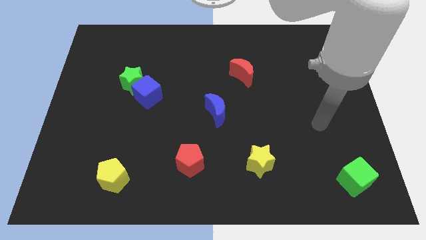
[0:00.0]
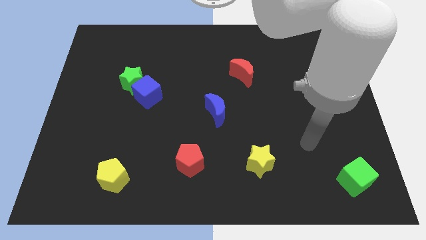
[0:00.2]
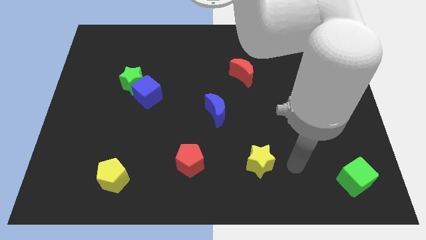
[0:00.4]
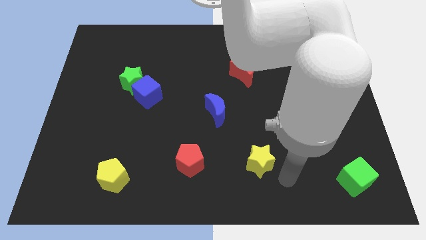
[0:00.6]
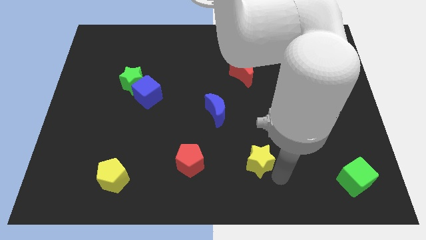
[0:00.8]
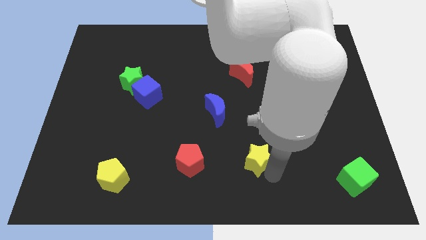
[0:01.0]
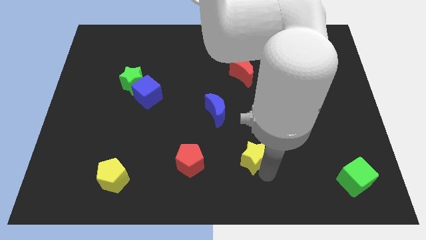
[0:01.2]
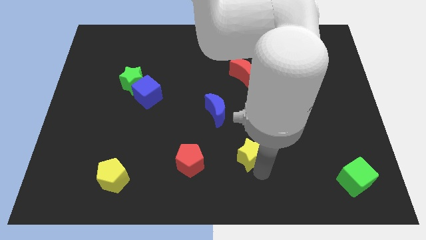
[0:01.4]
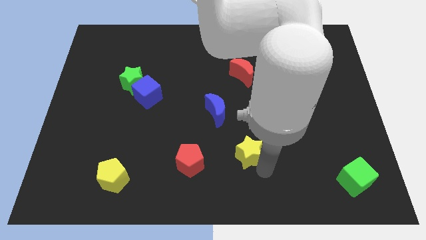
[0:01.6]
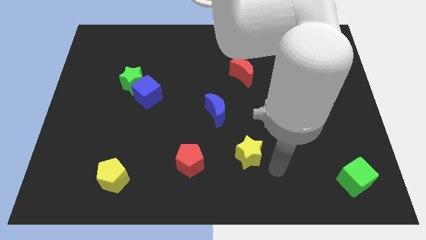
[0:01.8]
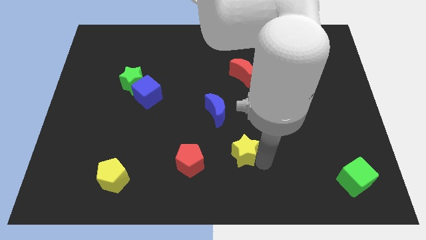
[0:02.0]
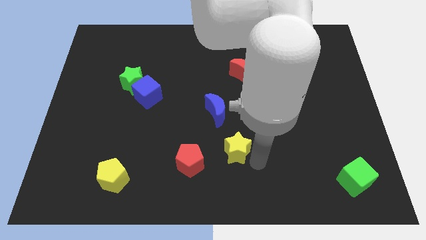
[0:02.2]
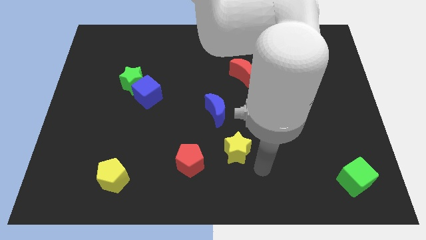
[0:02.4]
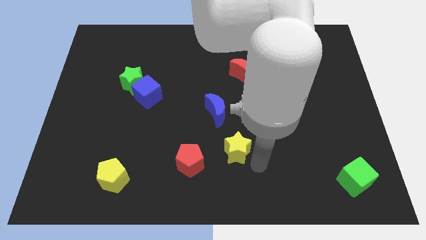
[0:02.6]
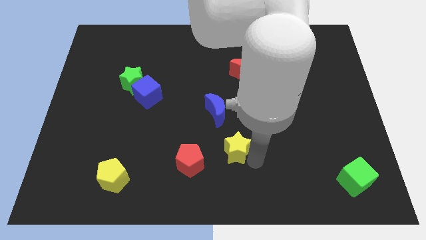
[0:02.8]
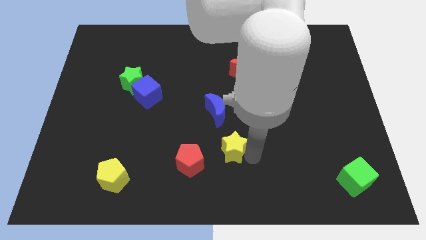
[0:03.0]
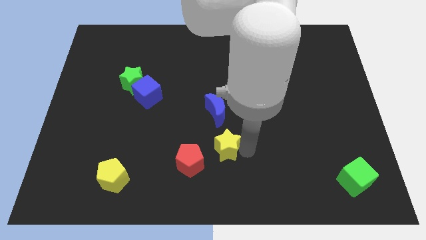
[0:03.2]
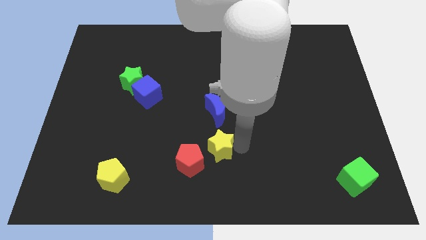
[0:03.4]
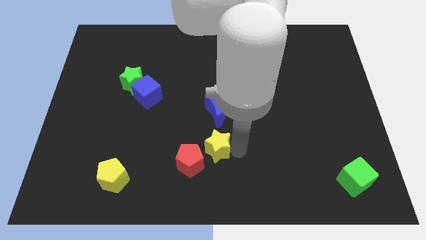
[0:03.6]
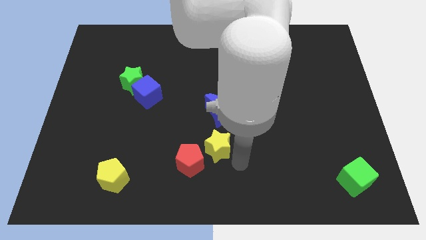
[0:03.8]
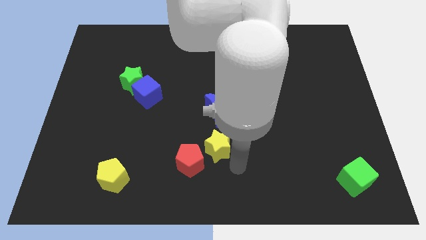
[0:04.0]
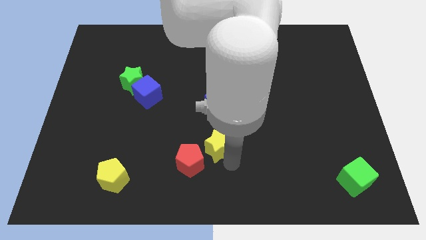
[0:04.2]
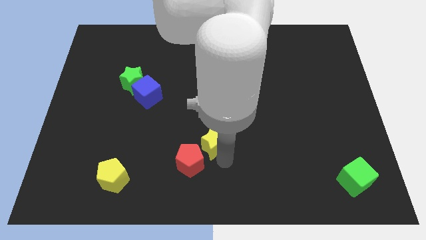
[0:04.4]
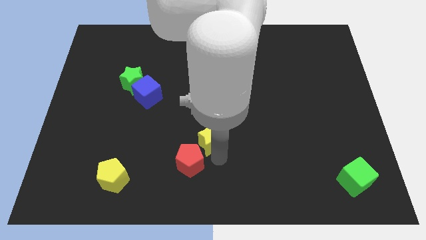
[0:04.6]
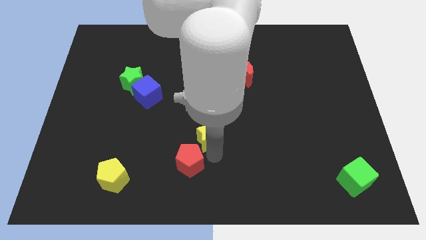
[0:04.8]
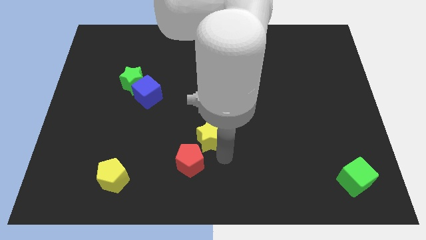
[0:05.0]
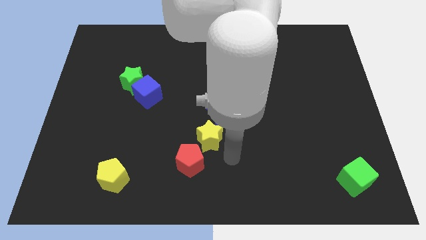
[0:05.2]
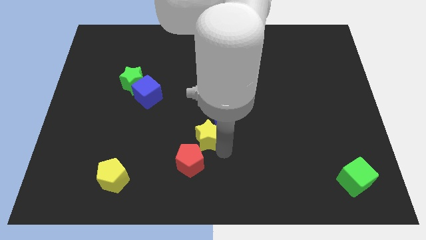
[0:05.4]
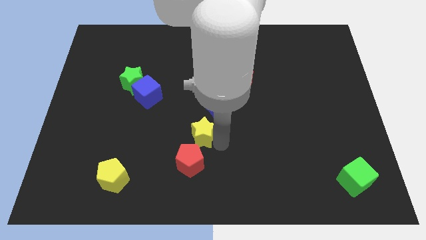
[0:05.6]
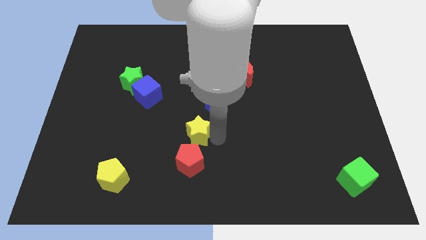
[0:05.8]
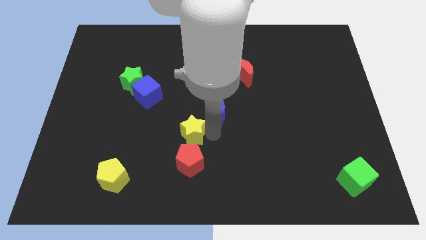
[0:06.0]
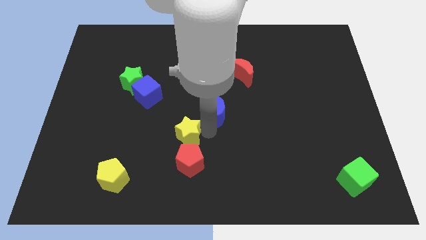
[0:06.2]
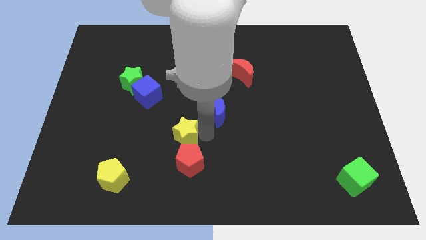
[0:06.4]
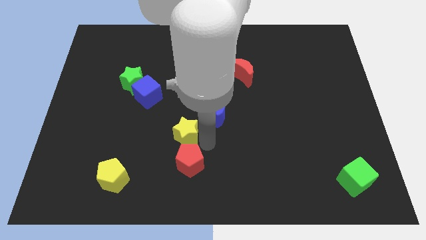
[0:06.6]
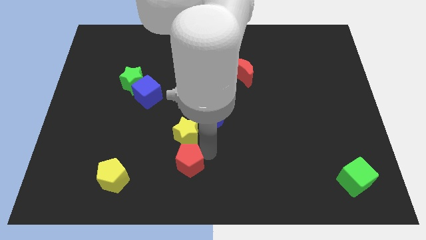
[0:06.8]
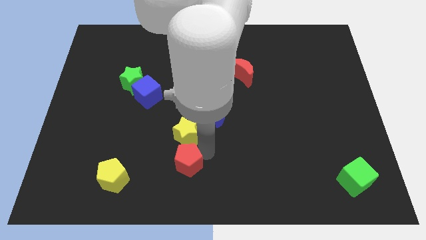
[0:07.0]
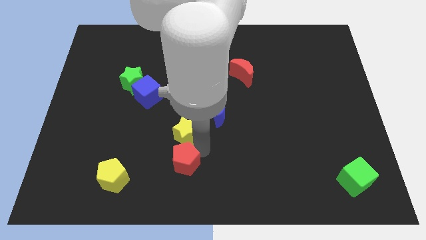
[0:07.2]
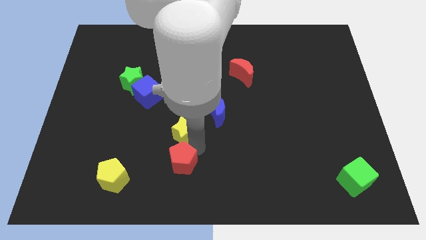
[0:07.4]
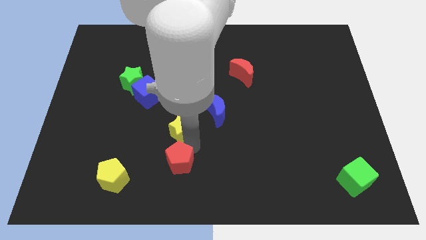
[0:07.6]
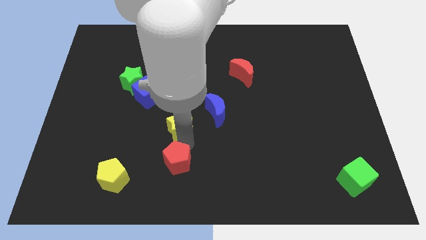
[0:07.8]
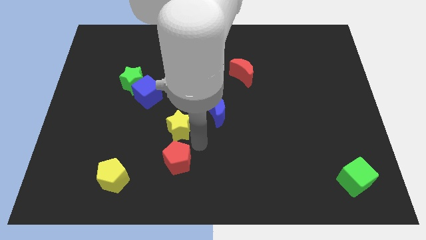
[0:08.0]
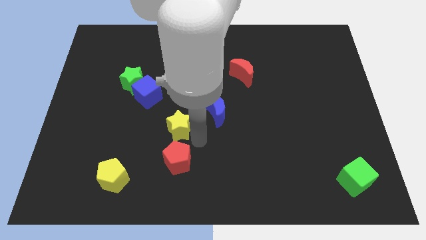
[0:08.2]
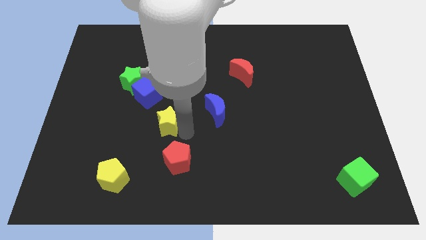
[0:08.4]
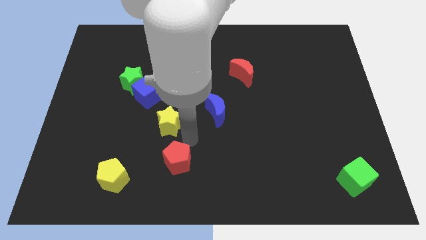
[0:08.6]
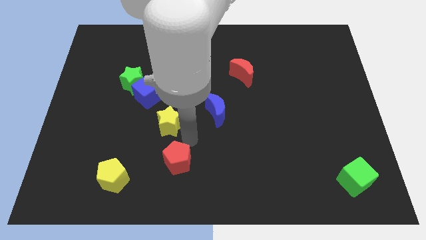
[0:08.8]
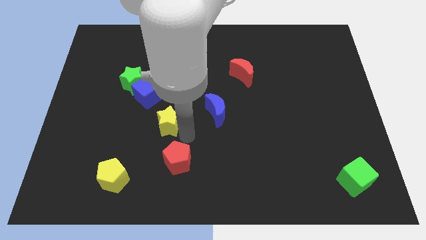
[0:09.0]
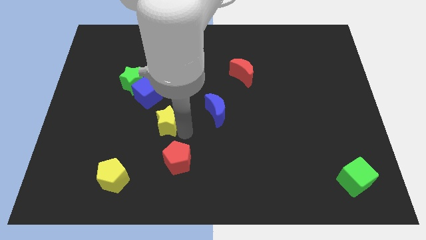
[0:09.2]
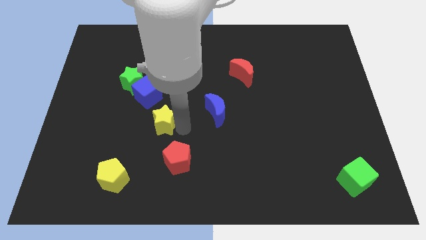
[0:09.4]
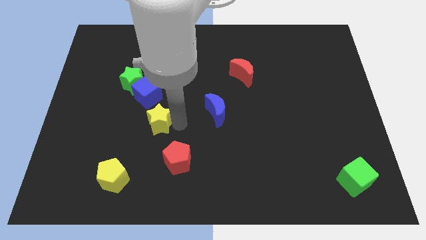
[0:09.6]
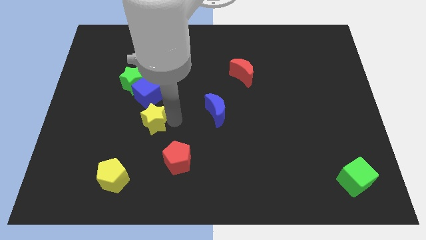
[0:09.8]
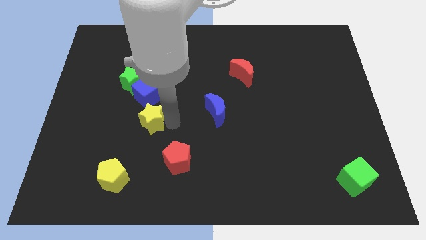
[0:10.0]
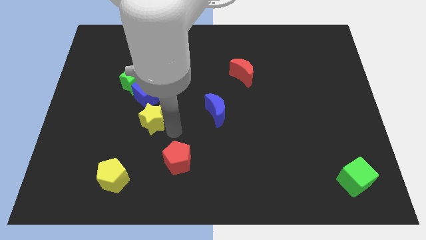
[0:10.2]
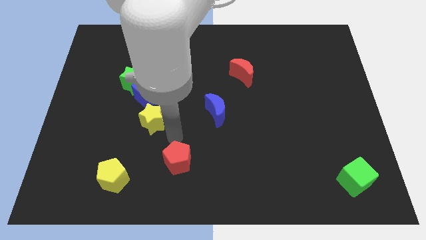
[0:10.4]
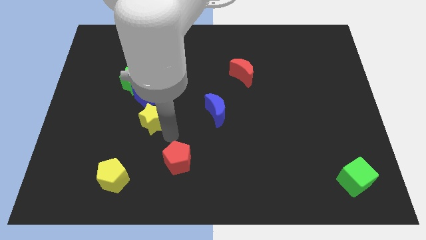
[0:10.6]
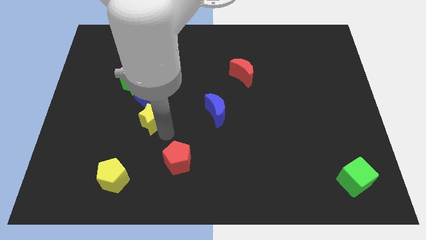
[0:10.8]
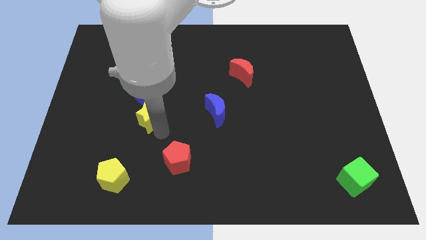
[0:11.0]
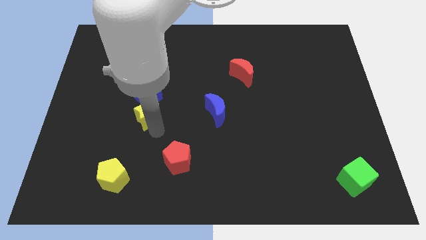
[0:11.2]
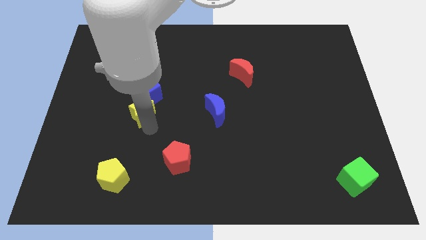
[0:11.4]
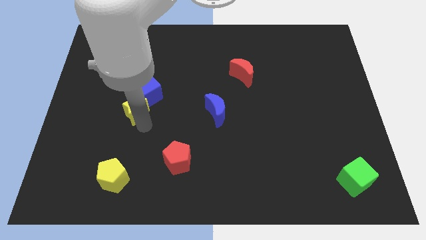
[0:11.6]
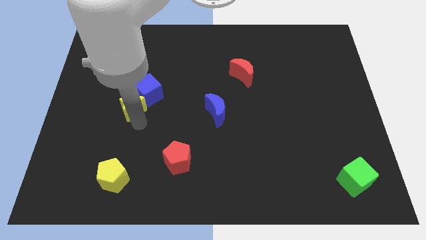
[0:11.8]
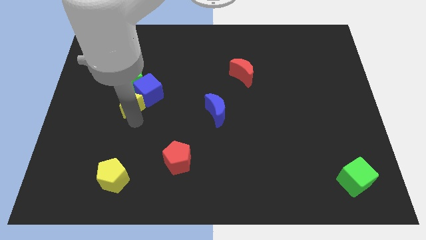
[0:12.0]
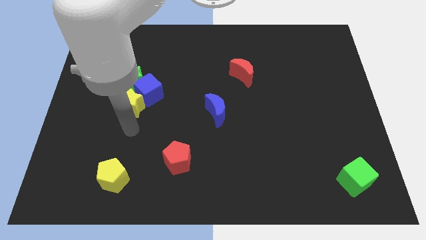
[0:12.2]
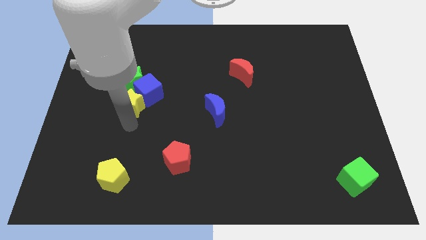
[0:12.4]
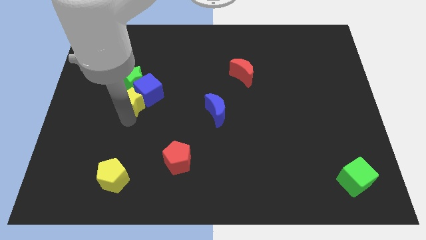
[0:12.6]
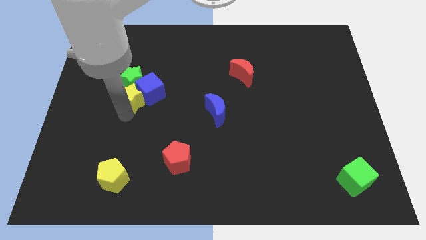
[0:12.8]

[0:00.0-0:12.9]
move the yellow star next to the green star

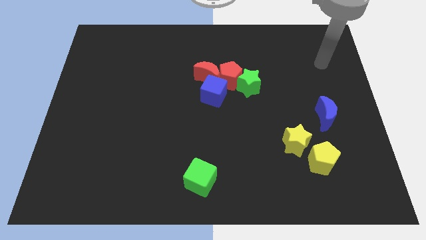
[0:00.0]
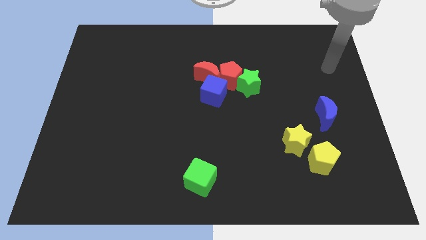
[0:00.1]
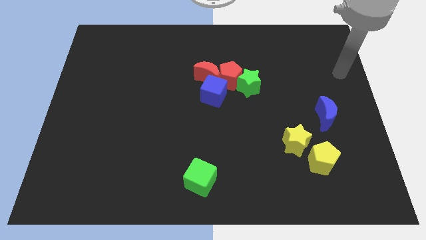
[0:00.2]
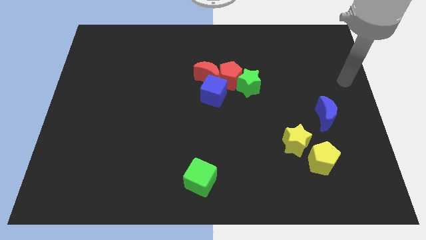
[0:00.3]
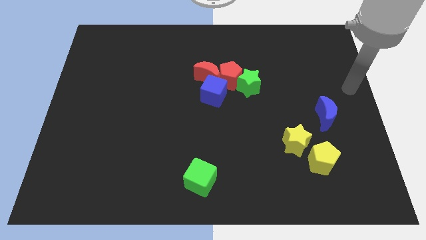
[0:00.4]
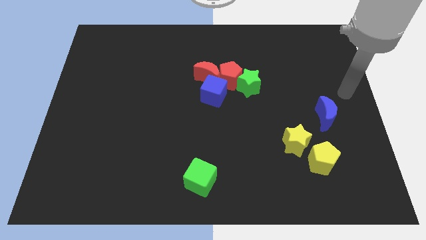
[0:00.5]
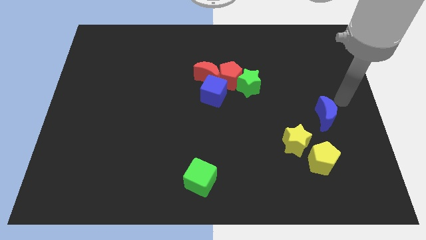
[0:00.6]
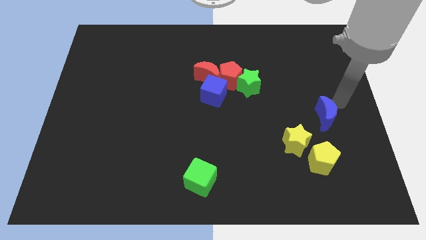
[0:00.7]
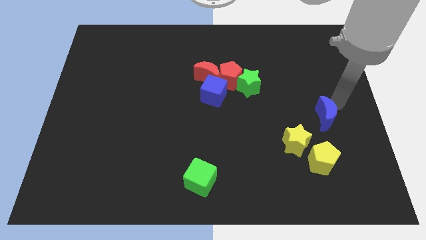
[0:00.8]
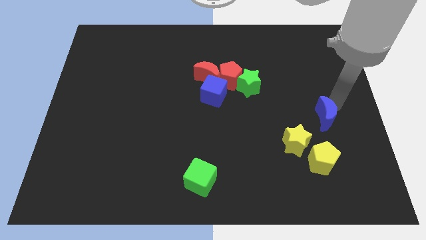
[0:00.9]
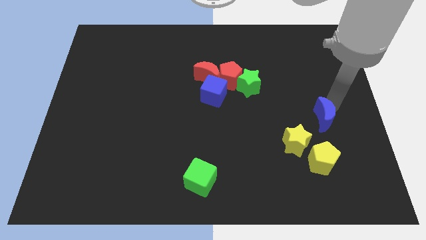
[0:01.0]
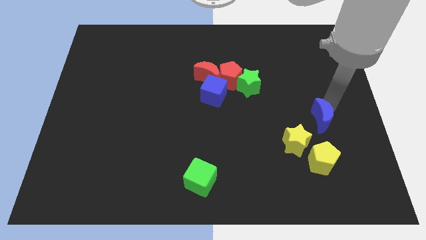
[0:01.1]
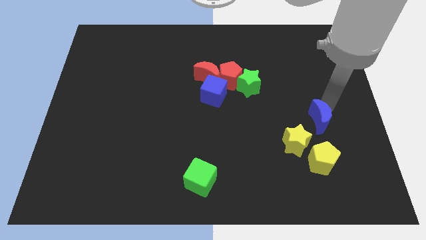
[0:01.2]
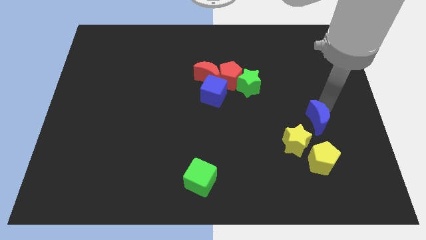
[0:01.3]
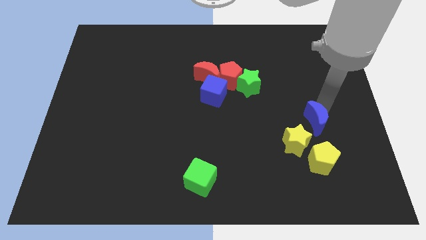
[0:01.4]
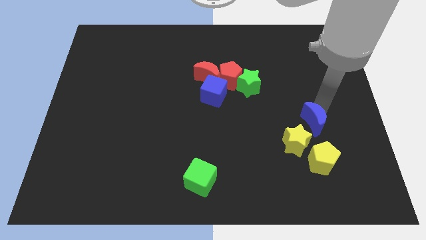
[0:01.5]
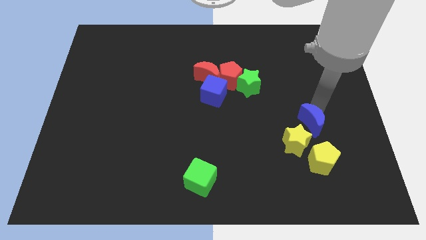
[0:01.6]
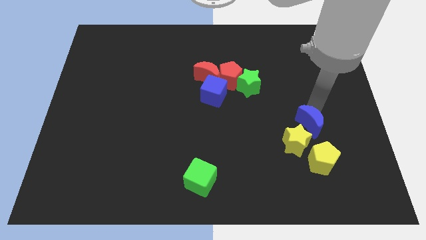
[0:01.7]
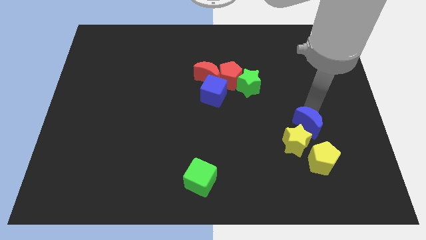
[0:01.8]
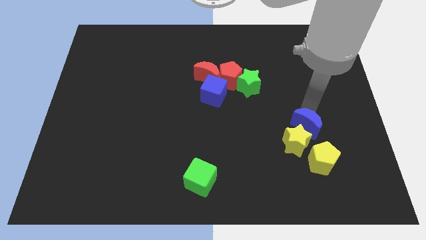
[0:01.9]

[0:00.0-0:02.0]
put the blue moon next to the yellow star
